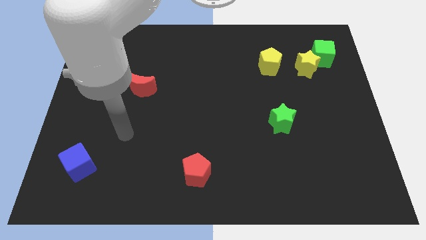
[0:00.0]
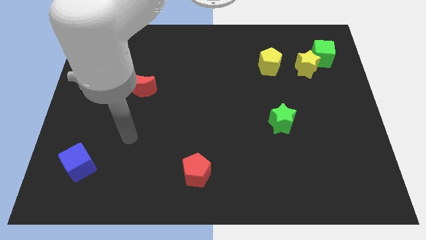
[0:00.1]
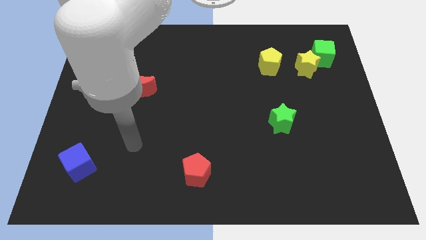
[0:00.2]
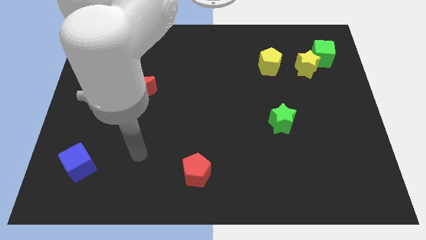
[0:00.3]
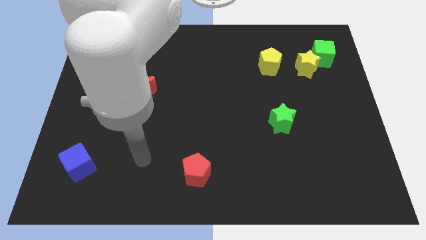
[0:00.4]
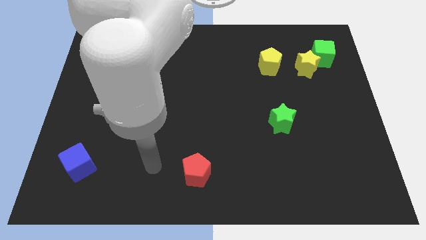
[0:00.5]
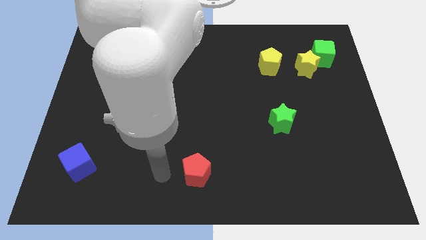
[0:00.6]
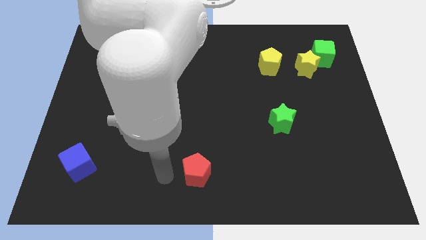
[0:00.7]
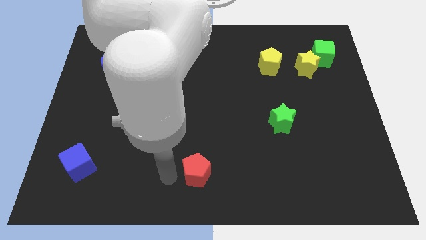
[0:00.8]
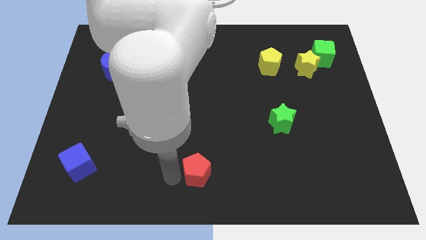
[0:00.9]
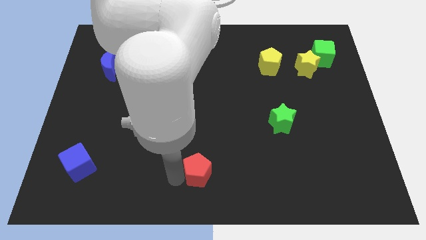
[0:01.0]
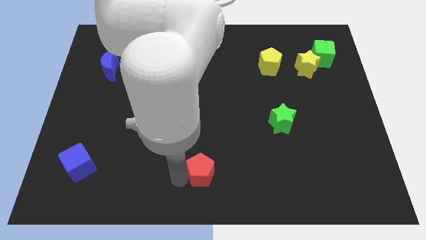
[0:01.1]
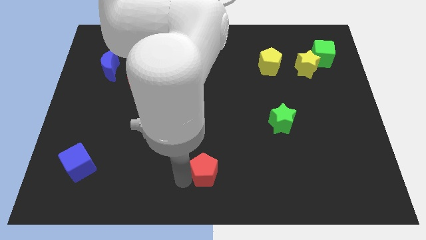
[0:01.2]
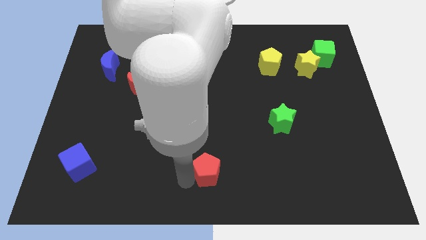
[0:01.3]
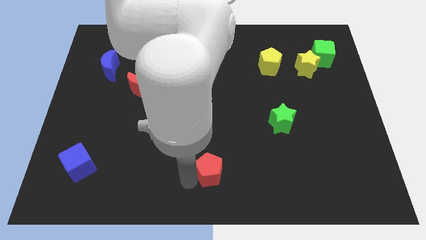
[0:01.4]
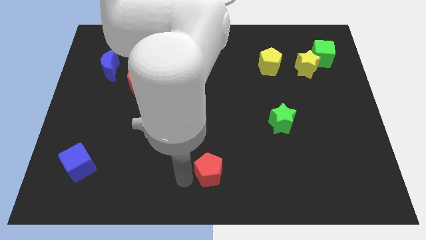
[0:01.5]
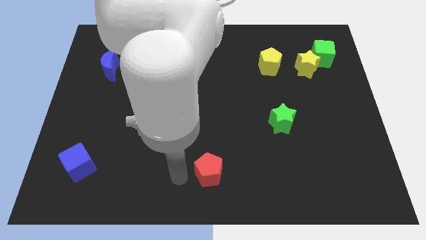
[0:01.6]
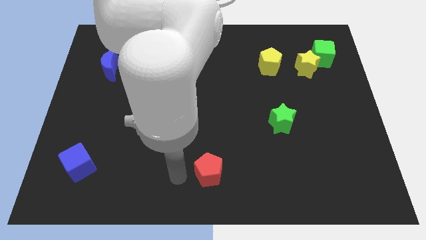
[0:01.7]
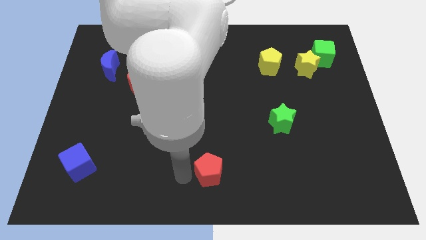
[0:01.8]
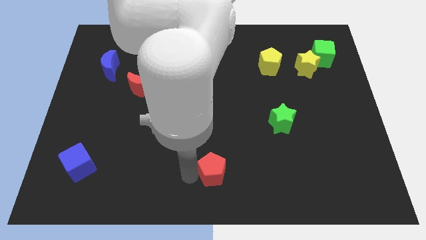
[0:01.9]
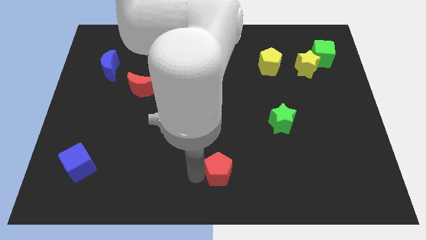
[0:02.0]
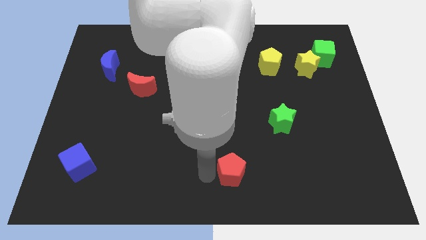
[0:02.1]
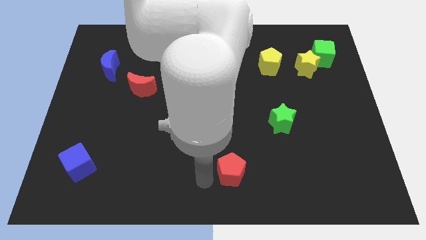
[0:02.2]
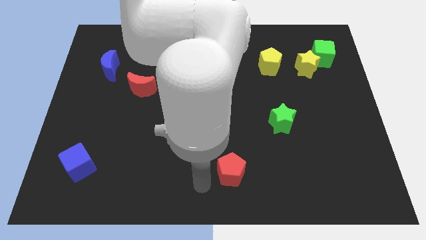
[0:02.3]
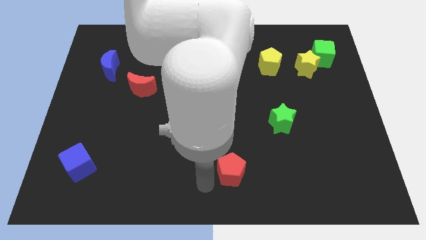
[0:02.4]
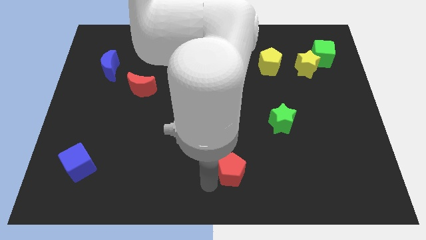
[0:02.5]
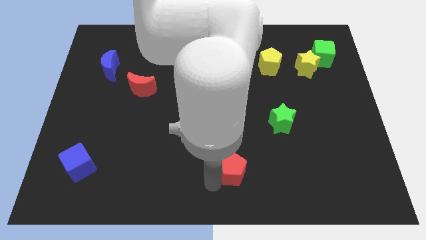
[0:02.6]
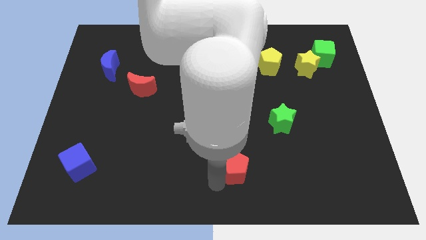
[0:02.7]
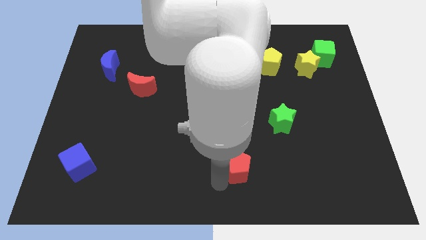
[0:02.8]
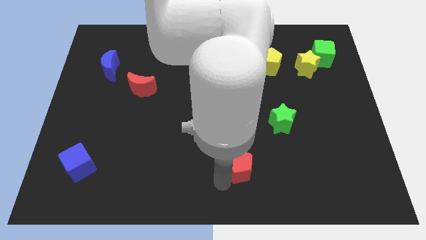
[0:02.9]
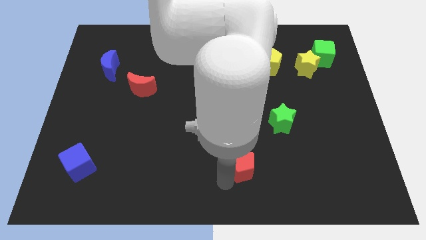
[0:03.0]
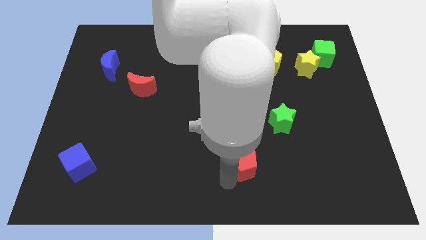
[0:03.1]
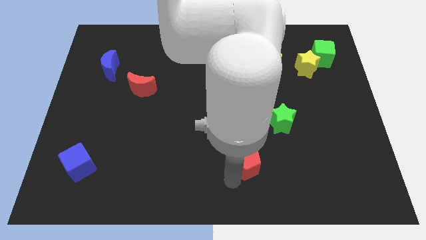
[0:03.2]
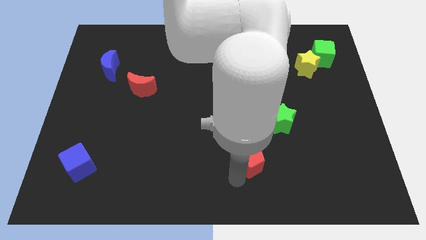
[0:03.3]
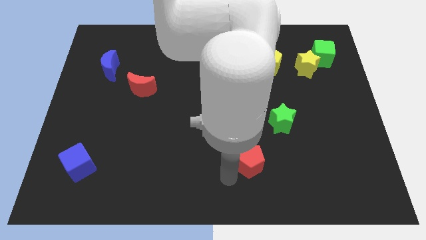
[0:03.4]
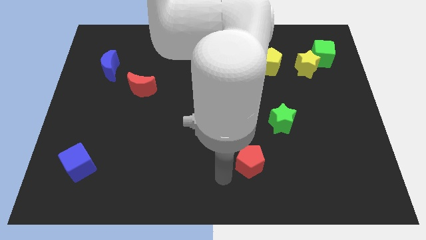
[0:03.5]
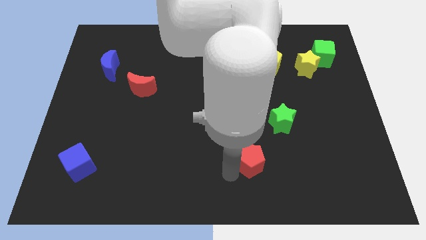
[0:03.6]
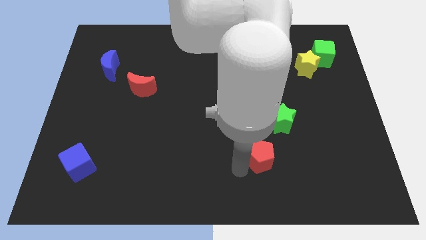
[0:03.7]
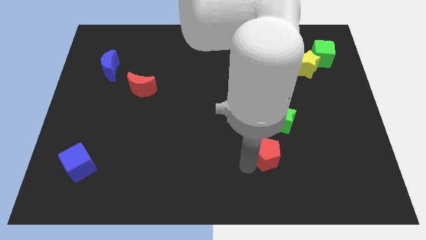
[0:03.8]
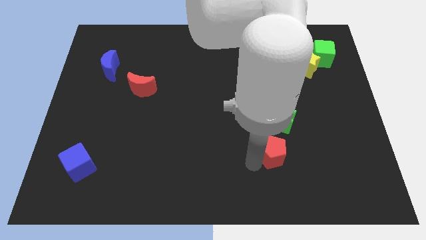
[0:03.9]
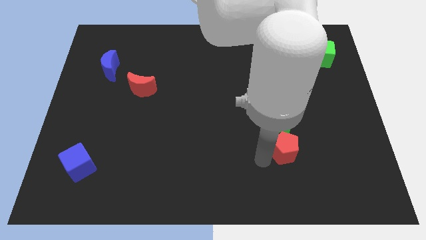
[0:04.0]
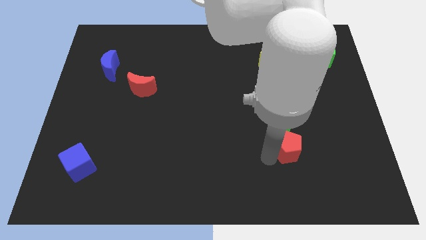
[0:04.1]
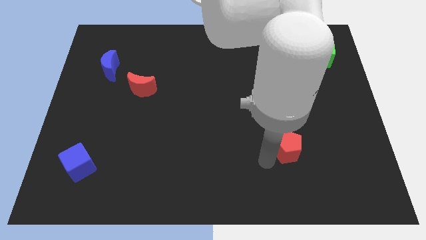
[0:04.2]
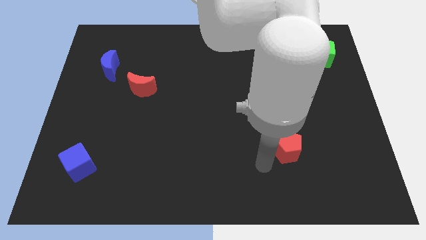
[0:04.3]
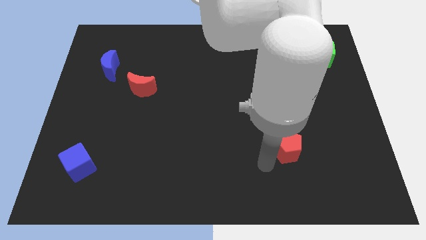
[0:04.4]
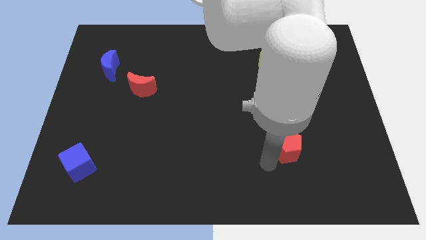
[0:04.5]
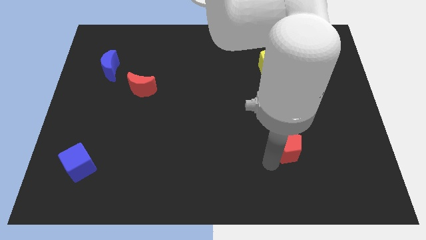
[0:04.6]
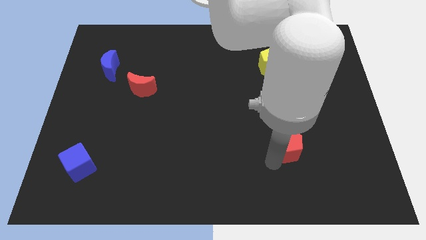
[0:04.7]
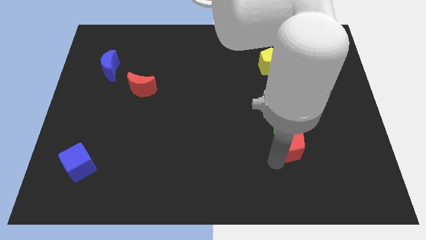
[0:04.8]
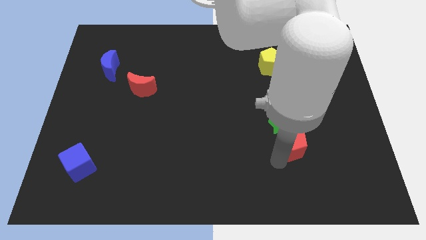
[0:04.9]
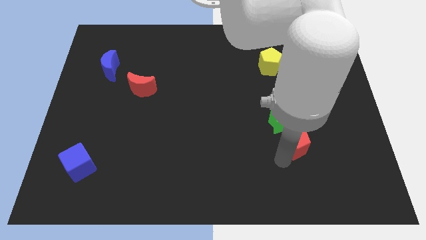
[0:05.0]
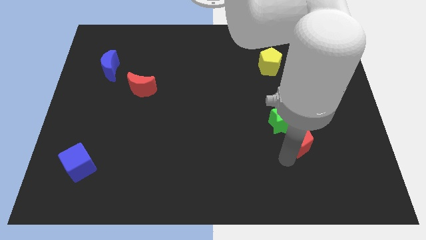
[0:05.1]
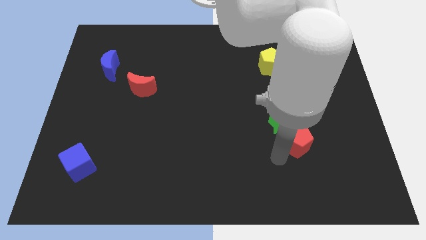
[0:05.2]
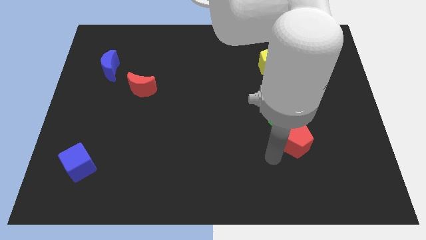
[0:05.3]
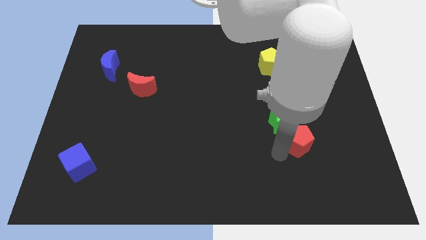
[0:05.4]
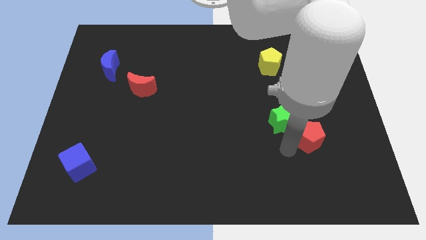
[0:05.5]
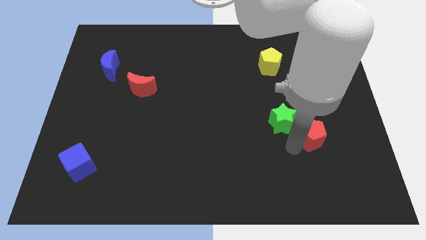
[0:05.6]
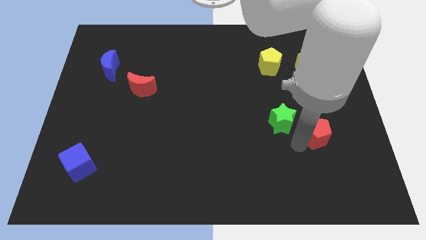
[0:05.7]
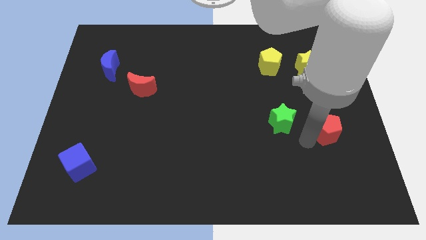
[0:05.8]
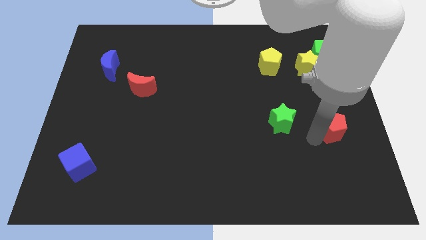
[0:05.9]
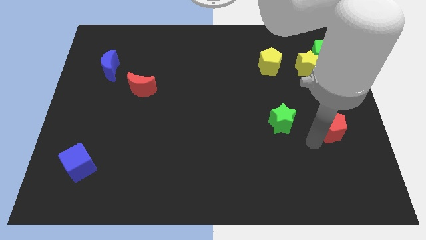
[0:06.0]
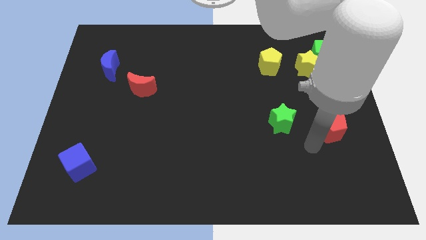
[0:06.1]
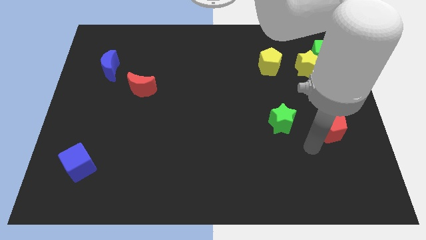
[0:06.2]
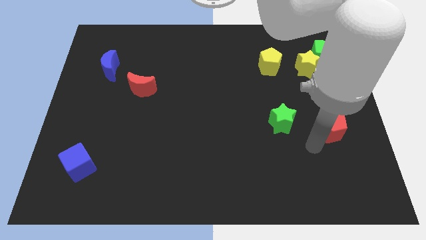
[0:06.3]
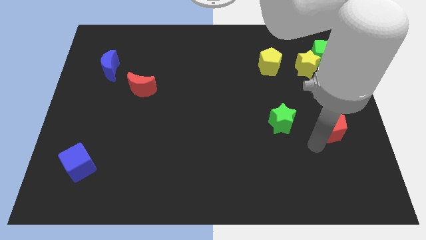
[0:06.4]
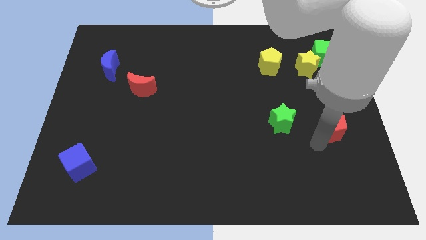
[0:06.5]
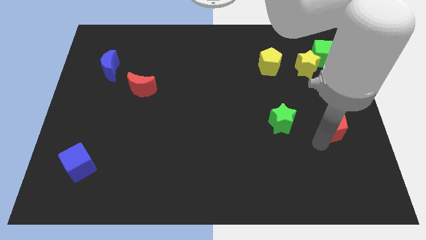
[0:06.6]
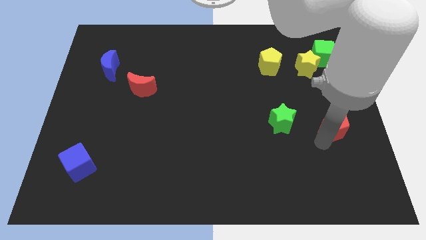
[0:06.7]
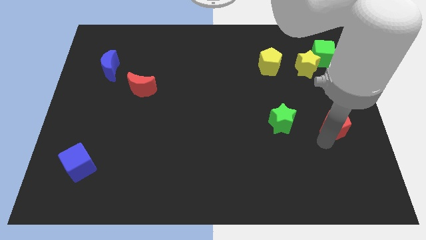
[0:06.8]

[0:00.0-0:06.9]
put the red pentagon to the center right
